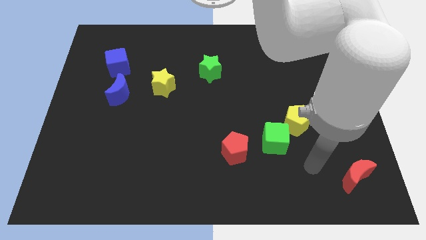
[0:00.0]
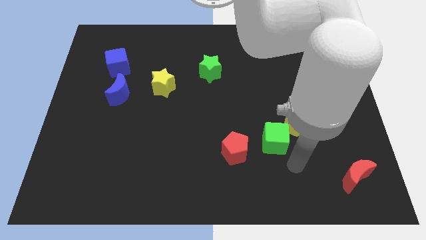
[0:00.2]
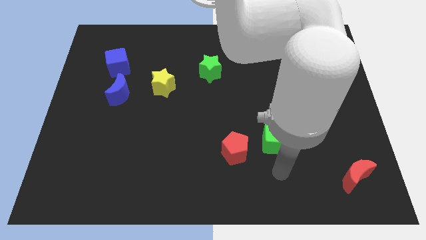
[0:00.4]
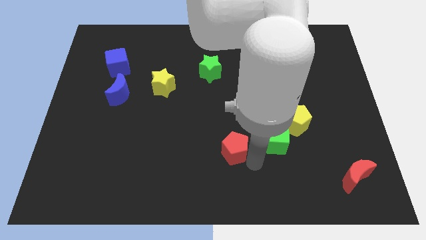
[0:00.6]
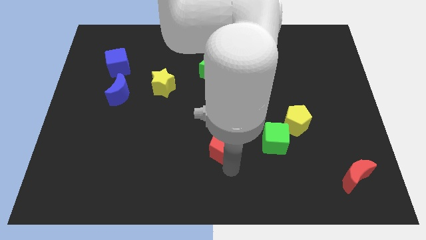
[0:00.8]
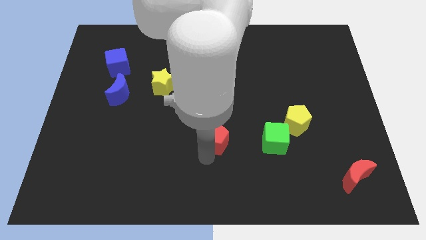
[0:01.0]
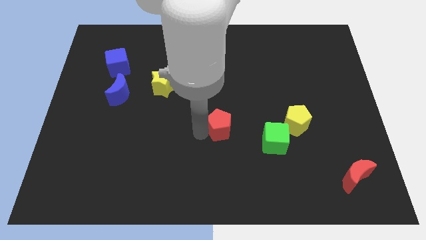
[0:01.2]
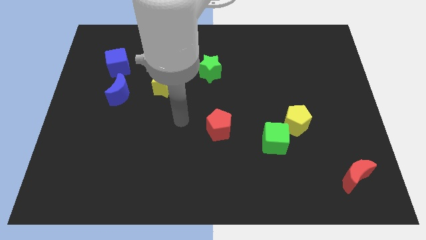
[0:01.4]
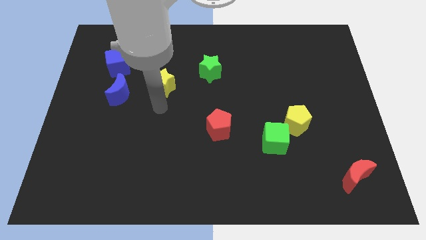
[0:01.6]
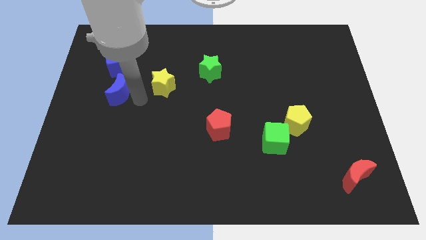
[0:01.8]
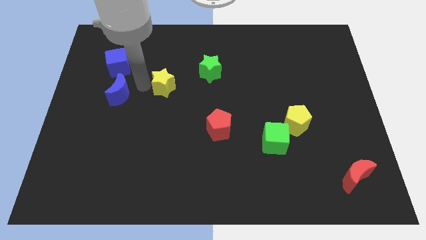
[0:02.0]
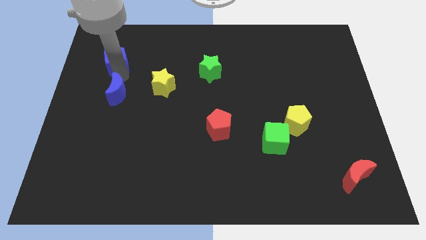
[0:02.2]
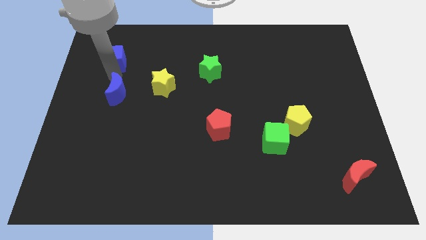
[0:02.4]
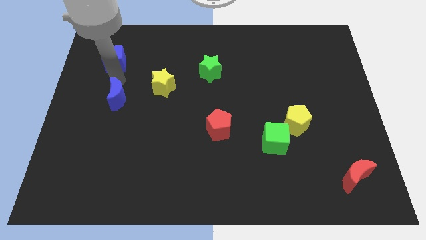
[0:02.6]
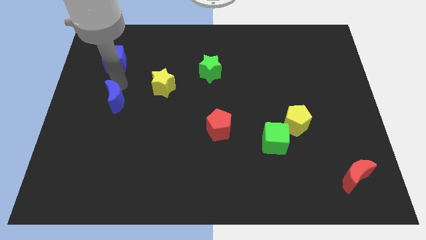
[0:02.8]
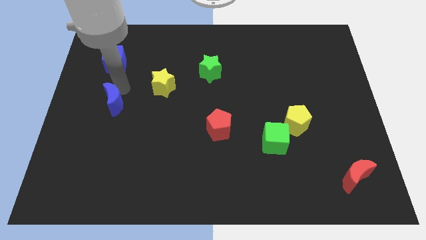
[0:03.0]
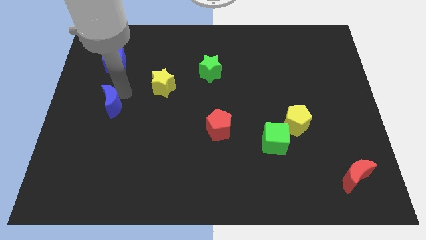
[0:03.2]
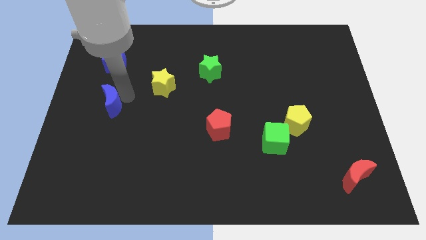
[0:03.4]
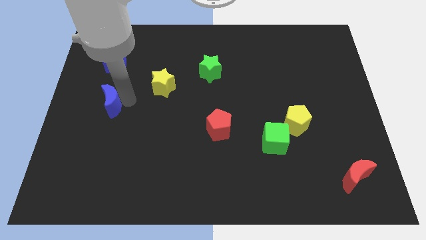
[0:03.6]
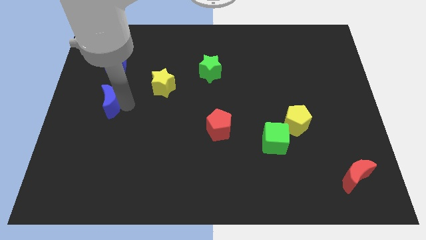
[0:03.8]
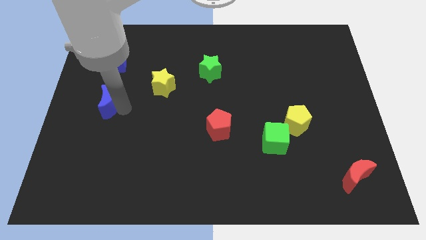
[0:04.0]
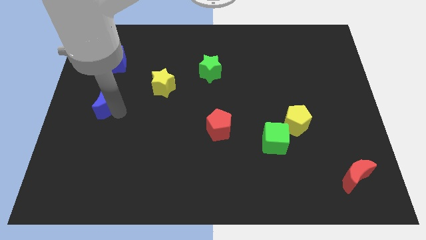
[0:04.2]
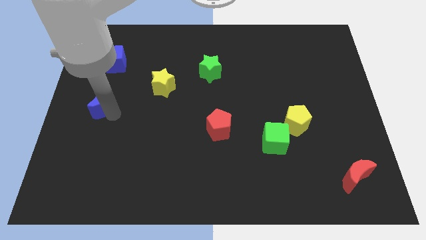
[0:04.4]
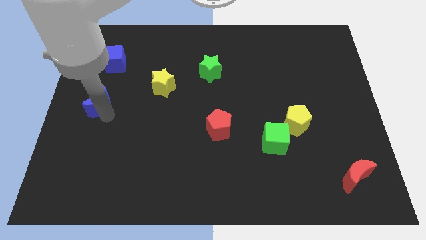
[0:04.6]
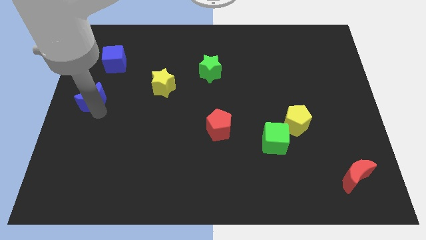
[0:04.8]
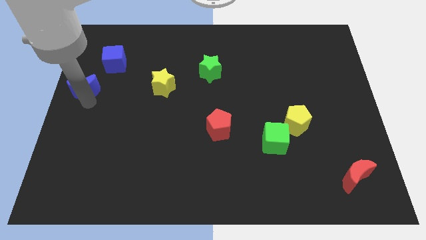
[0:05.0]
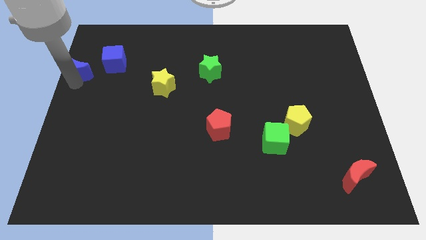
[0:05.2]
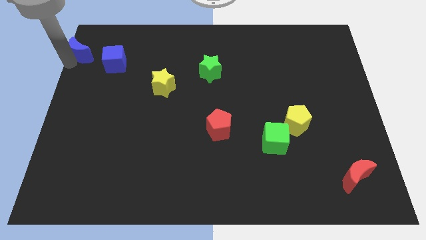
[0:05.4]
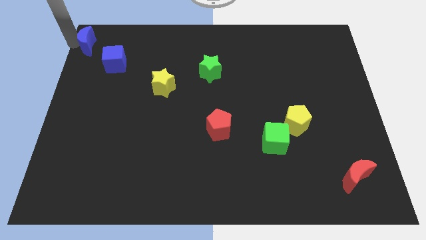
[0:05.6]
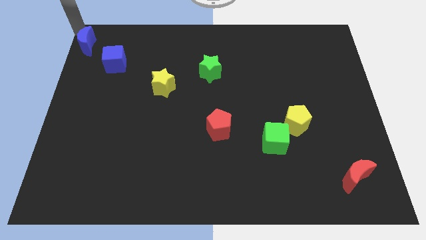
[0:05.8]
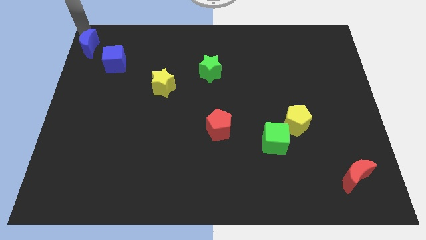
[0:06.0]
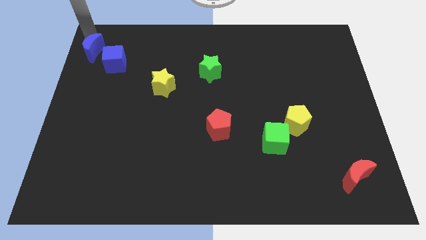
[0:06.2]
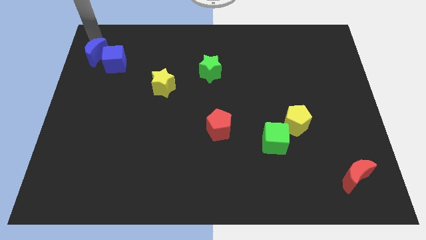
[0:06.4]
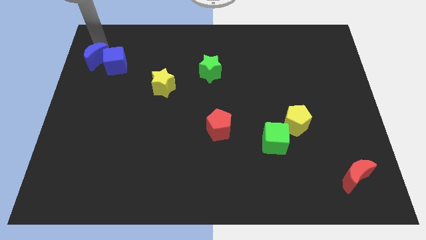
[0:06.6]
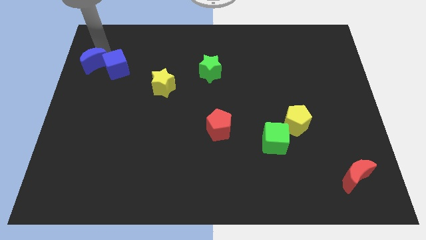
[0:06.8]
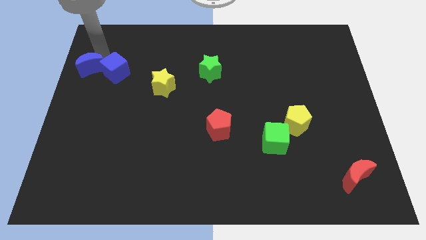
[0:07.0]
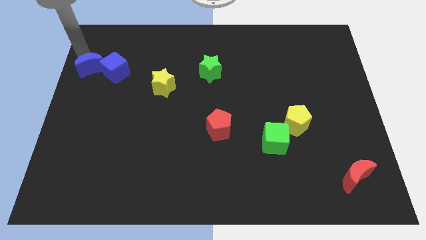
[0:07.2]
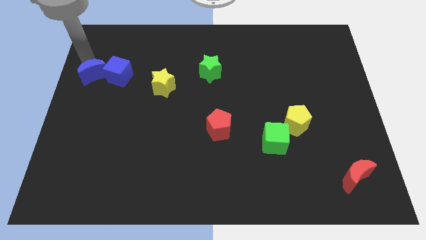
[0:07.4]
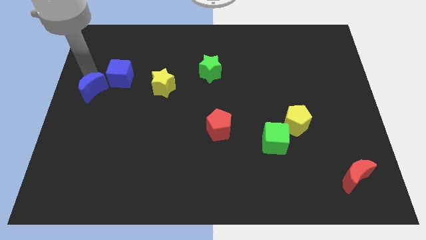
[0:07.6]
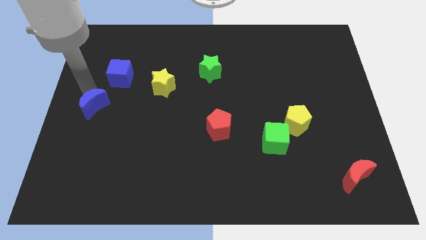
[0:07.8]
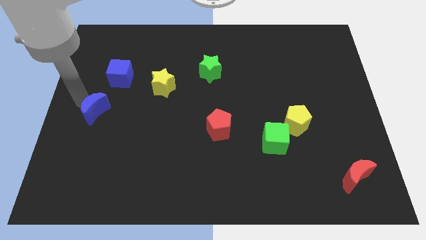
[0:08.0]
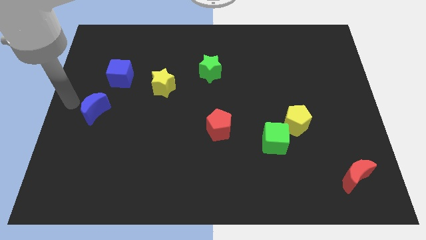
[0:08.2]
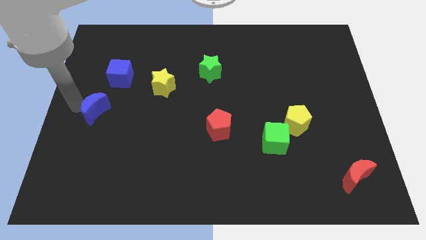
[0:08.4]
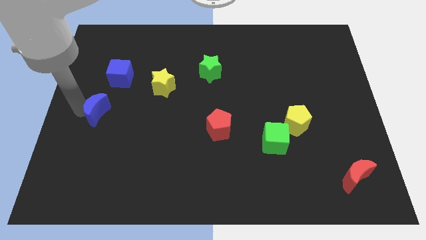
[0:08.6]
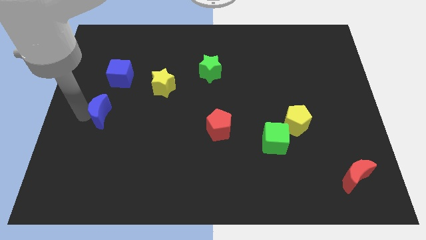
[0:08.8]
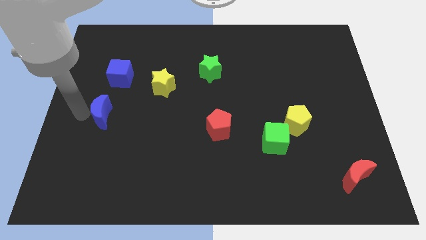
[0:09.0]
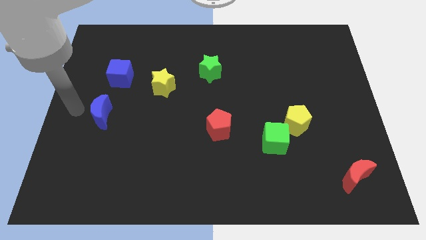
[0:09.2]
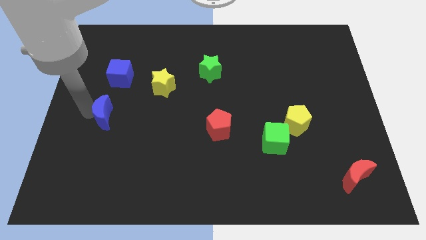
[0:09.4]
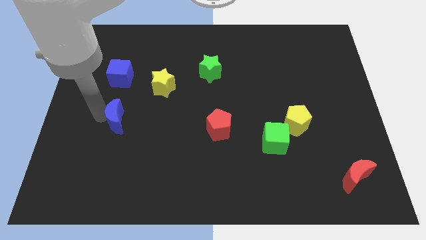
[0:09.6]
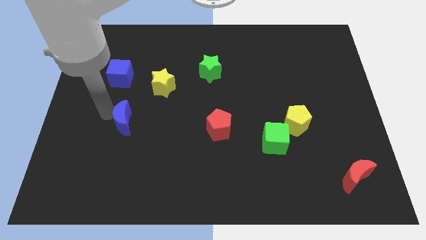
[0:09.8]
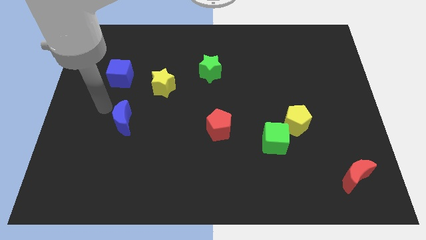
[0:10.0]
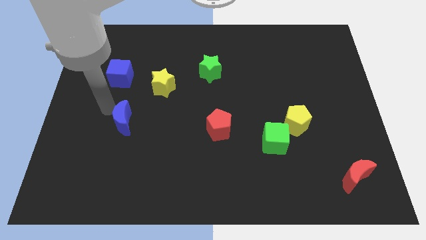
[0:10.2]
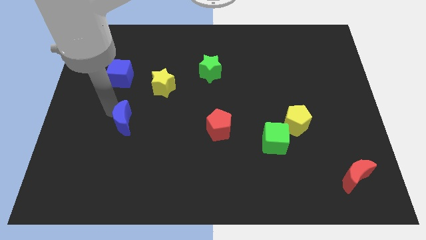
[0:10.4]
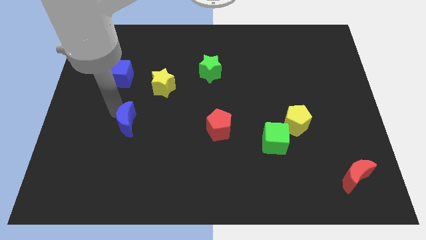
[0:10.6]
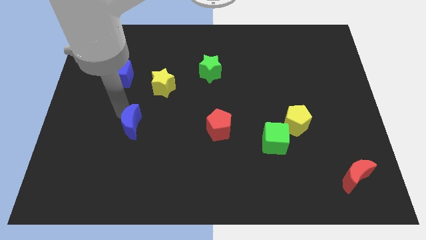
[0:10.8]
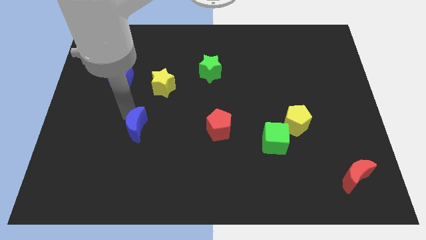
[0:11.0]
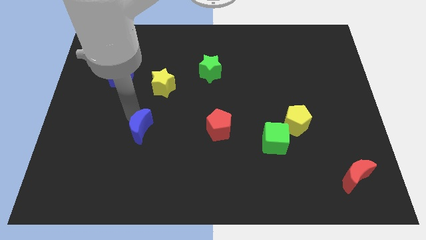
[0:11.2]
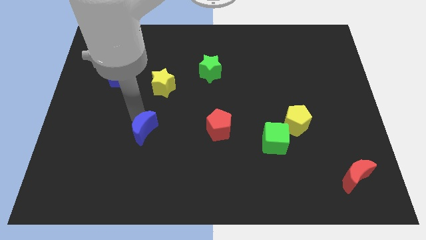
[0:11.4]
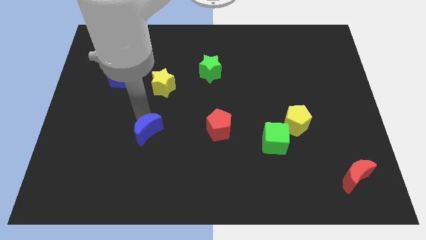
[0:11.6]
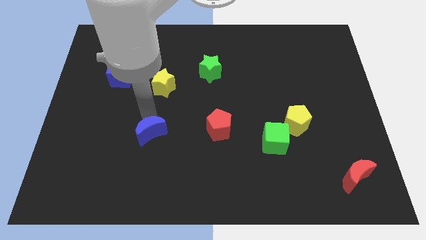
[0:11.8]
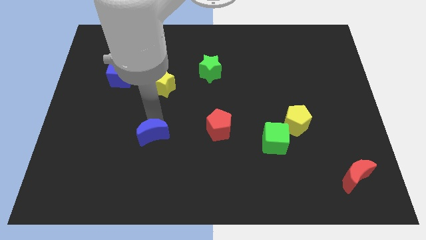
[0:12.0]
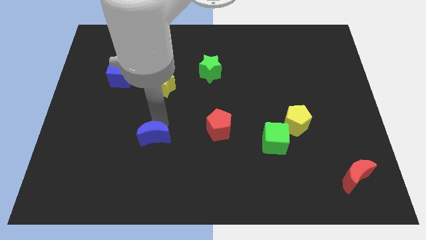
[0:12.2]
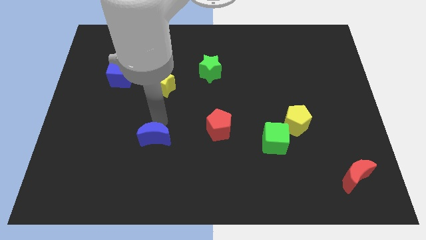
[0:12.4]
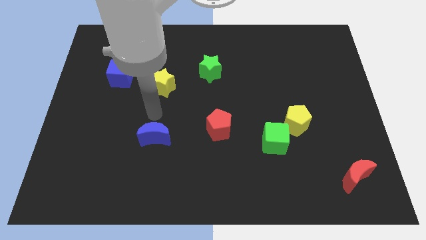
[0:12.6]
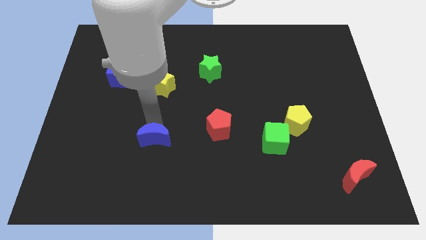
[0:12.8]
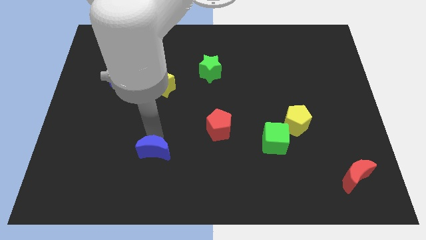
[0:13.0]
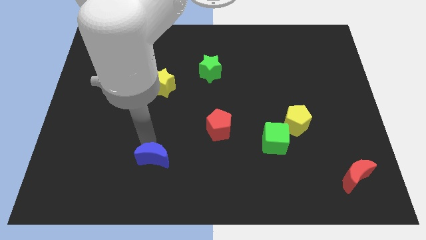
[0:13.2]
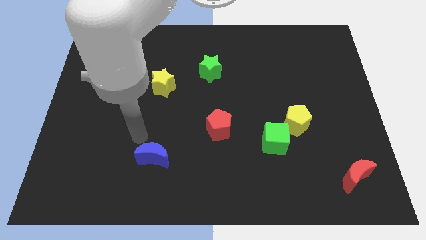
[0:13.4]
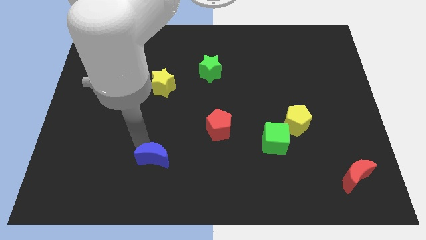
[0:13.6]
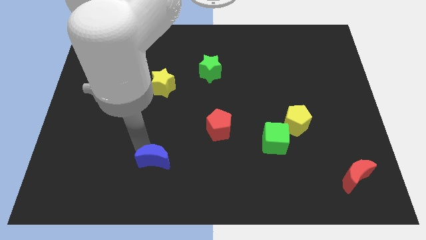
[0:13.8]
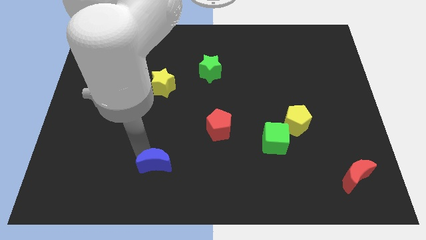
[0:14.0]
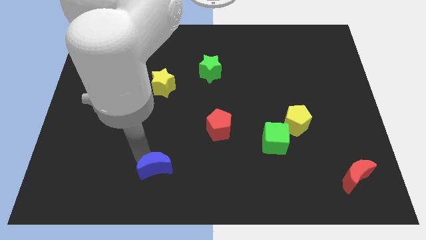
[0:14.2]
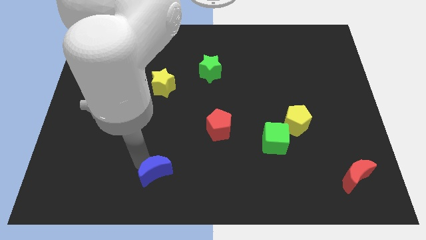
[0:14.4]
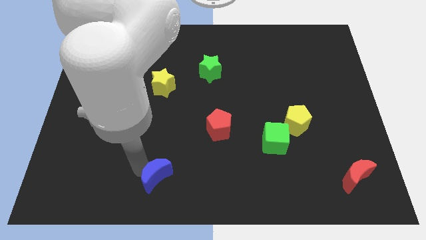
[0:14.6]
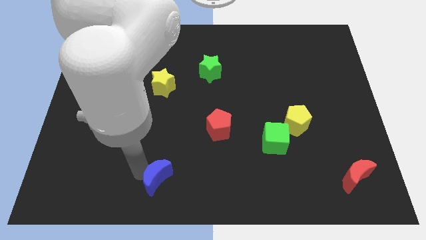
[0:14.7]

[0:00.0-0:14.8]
slide the blue moon to the bottom side
